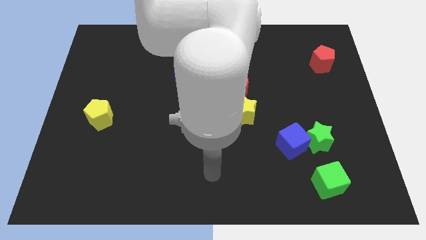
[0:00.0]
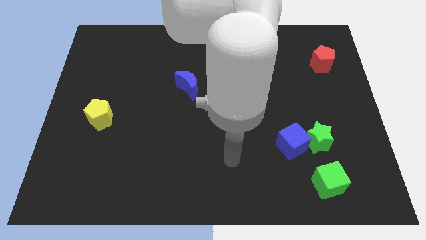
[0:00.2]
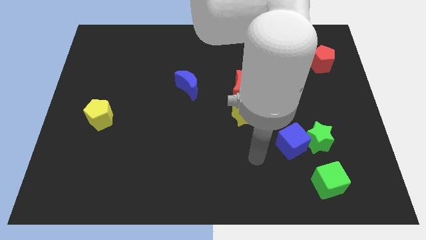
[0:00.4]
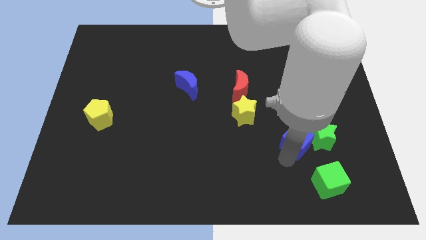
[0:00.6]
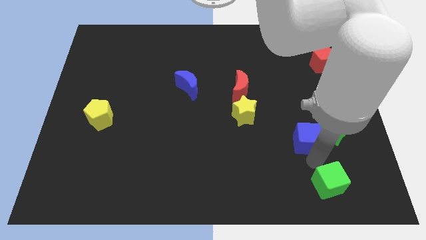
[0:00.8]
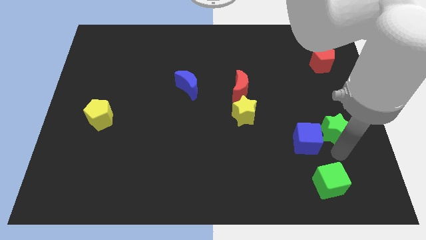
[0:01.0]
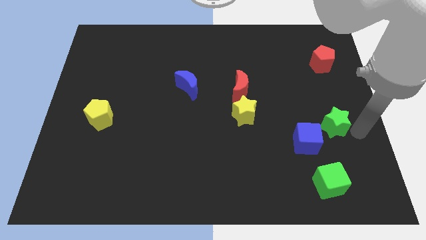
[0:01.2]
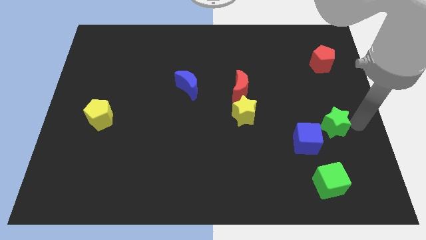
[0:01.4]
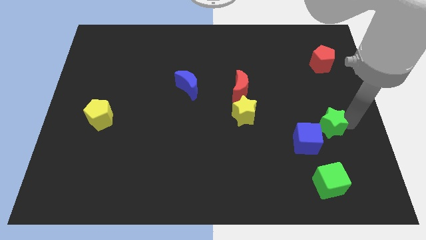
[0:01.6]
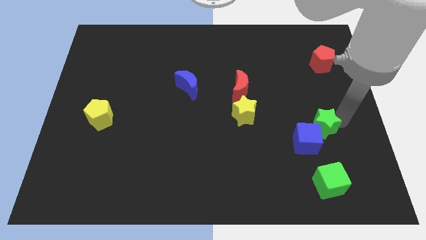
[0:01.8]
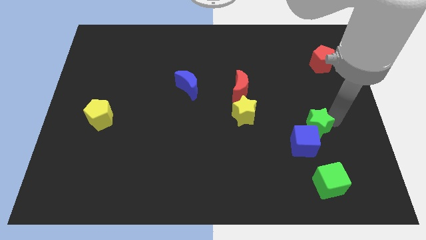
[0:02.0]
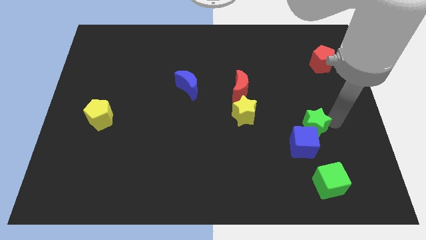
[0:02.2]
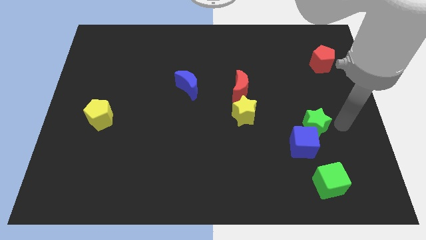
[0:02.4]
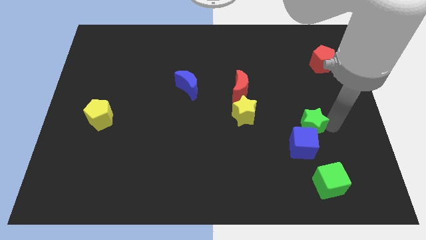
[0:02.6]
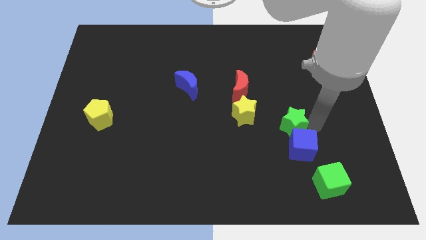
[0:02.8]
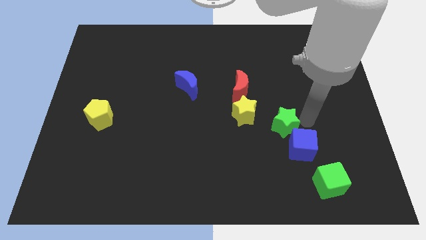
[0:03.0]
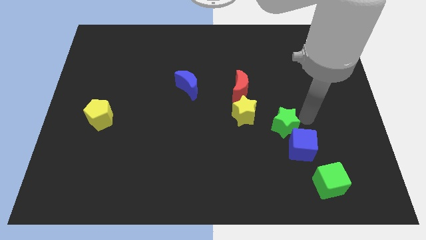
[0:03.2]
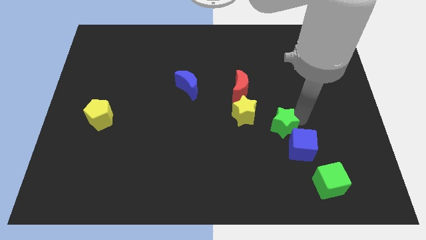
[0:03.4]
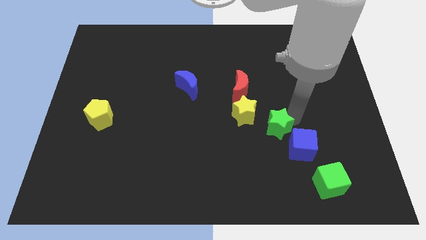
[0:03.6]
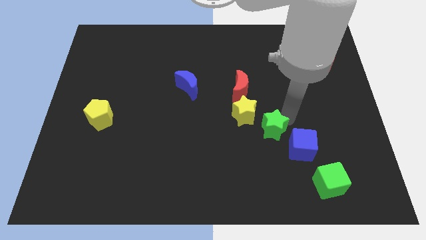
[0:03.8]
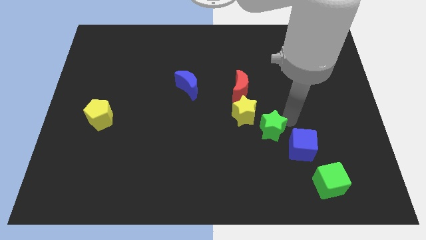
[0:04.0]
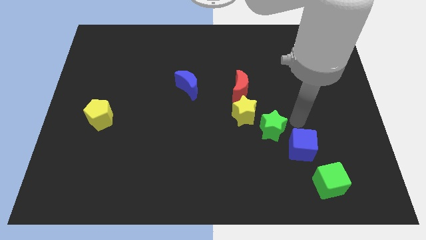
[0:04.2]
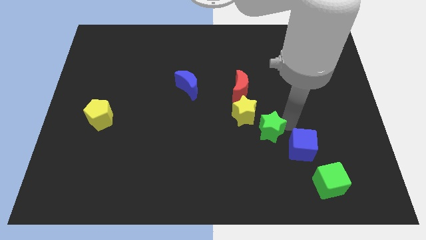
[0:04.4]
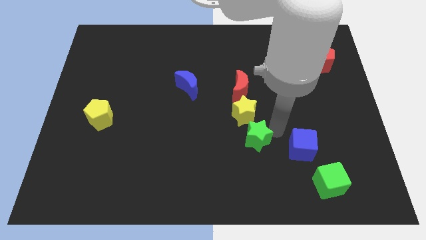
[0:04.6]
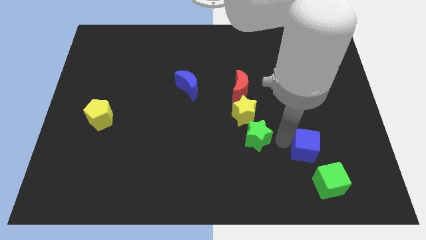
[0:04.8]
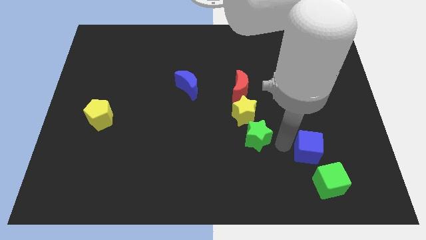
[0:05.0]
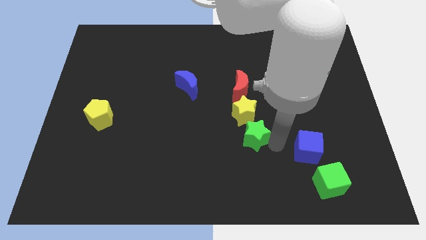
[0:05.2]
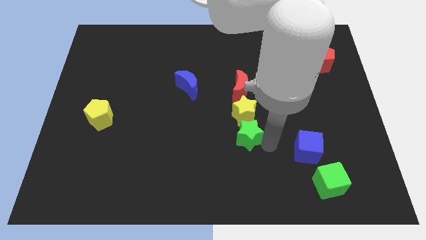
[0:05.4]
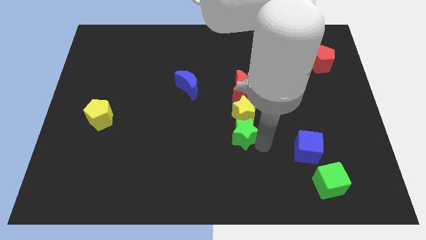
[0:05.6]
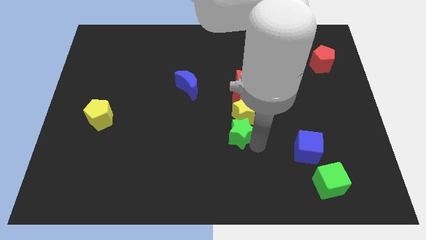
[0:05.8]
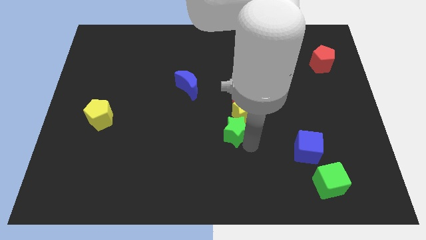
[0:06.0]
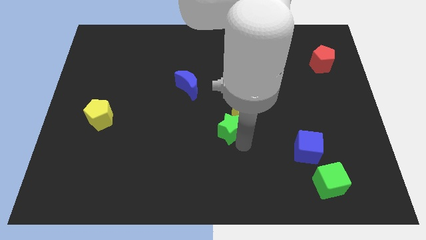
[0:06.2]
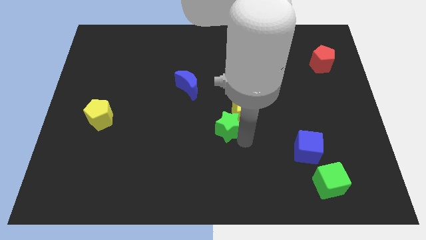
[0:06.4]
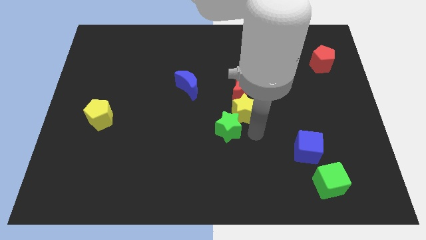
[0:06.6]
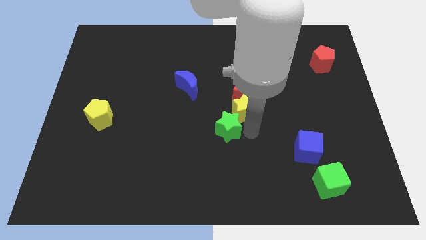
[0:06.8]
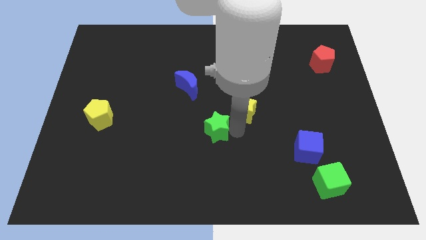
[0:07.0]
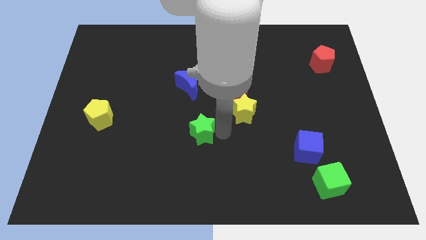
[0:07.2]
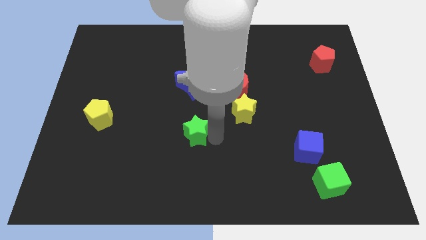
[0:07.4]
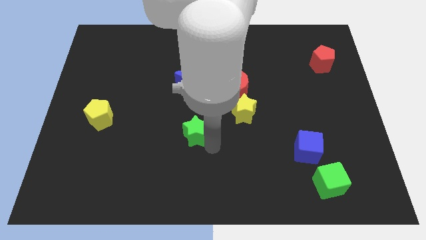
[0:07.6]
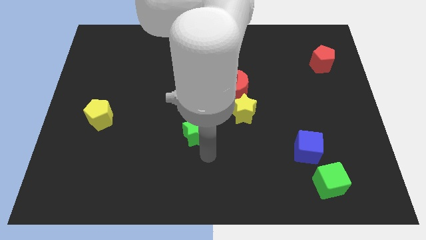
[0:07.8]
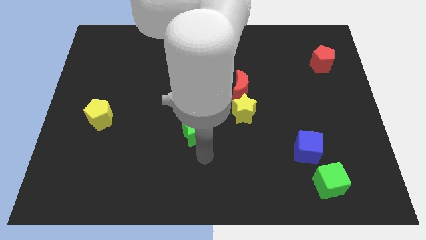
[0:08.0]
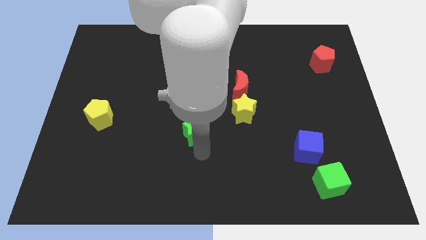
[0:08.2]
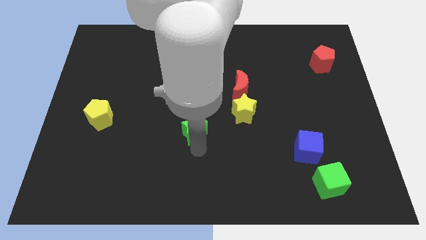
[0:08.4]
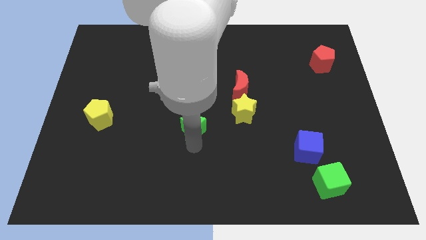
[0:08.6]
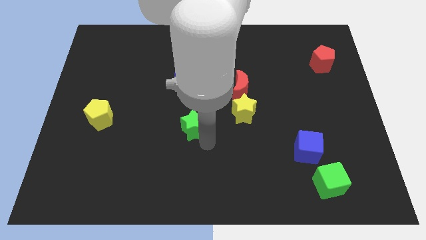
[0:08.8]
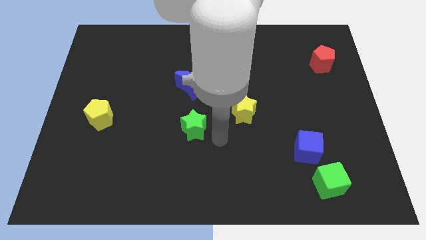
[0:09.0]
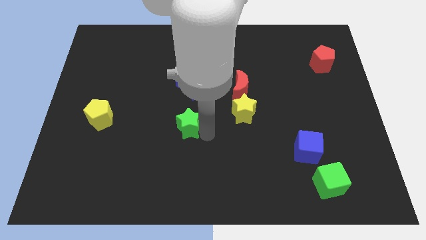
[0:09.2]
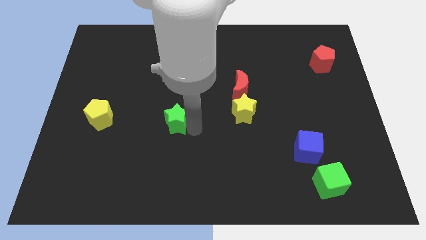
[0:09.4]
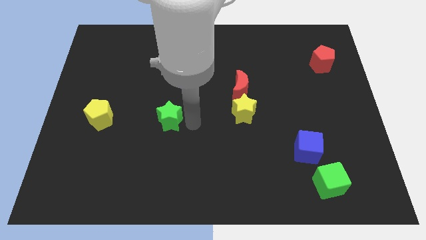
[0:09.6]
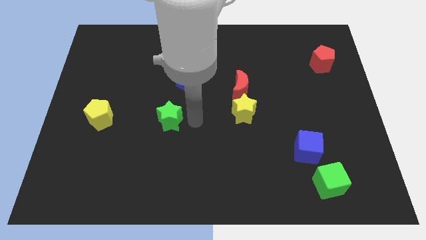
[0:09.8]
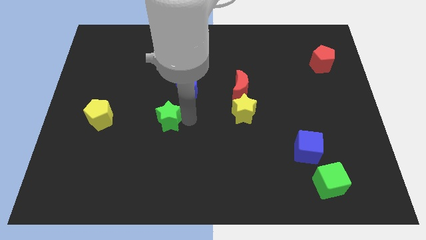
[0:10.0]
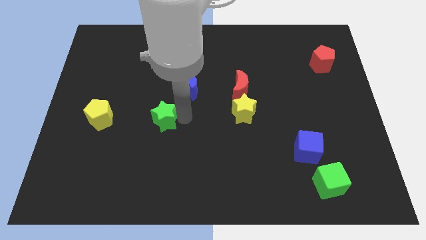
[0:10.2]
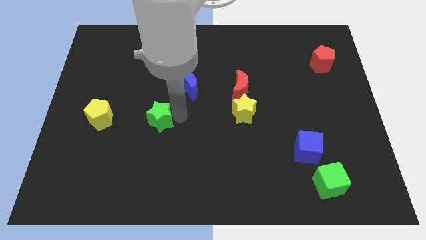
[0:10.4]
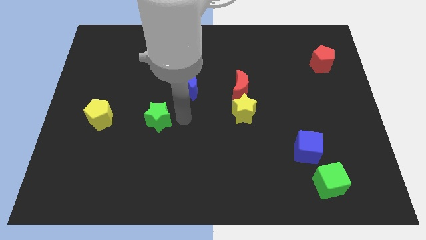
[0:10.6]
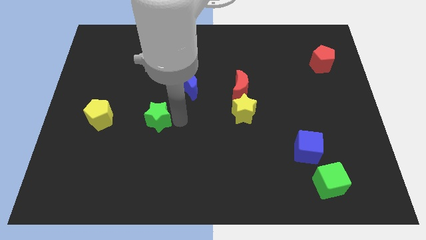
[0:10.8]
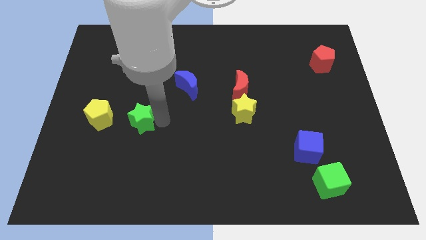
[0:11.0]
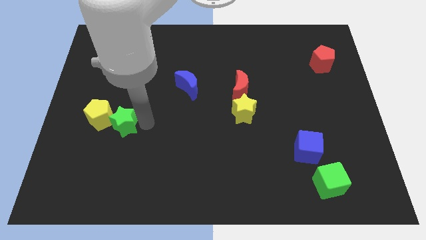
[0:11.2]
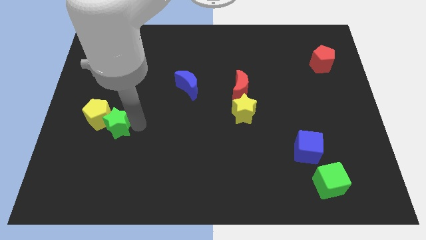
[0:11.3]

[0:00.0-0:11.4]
put the green star close to the yellow pentagon

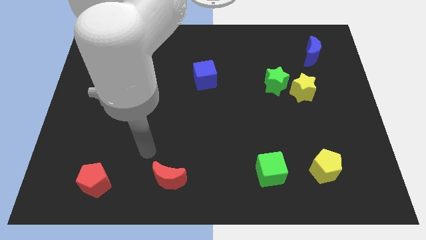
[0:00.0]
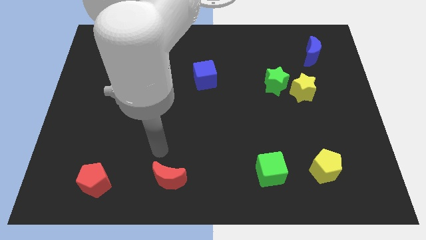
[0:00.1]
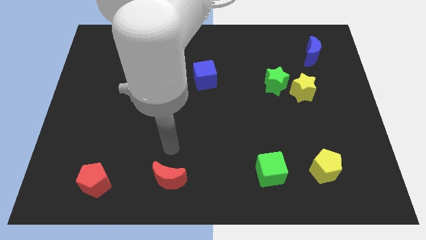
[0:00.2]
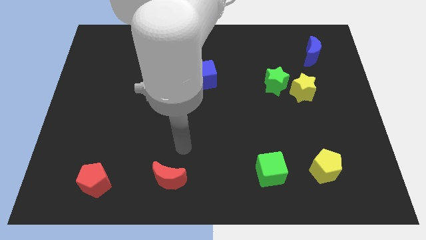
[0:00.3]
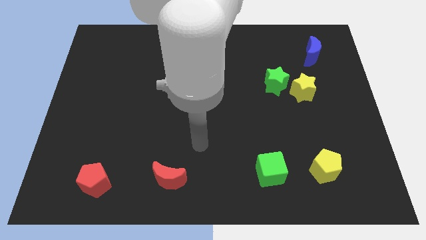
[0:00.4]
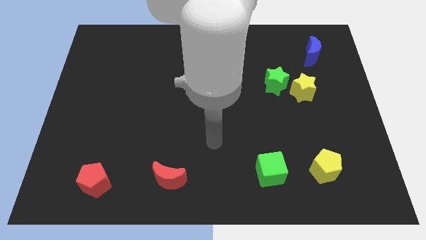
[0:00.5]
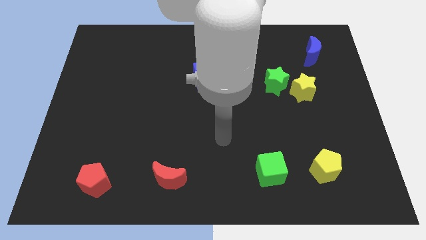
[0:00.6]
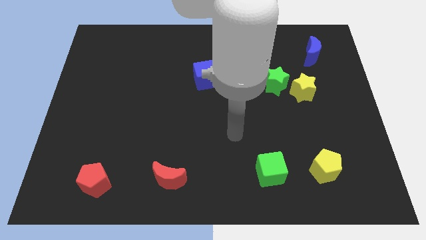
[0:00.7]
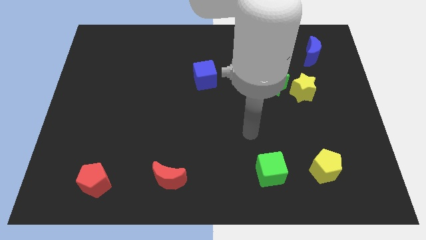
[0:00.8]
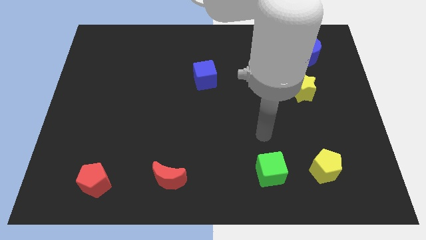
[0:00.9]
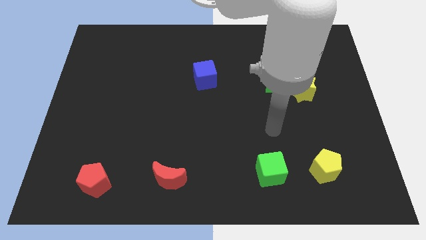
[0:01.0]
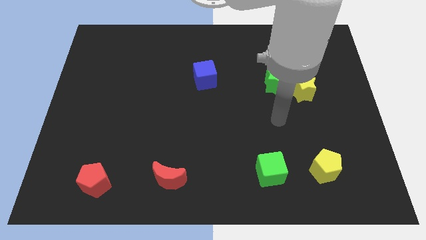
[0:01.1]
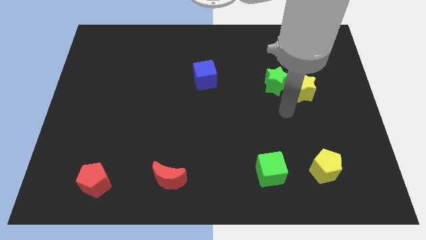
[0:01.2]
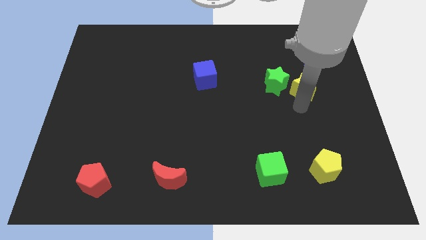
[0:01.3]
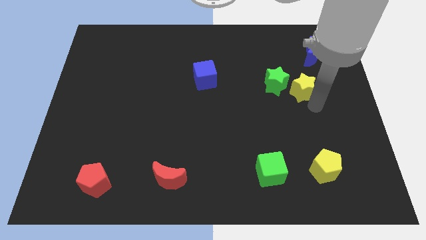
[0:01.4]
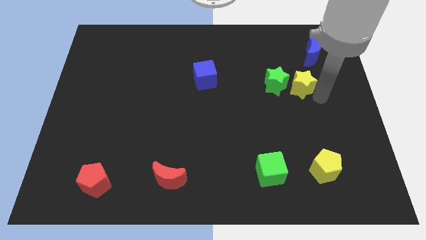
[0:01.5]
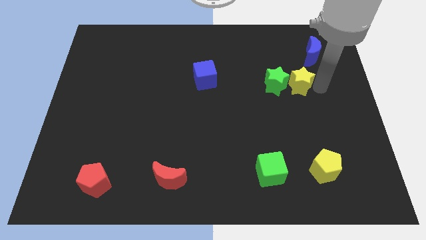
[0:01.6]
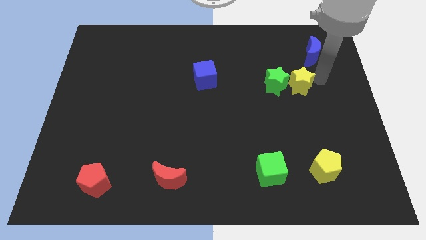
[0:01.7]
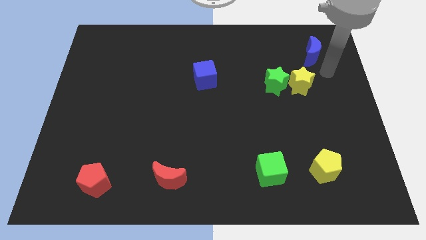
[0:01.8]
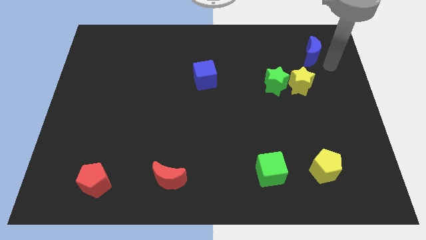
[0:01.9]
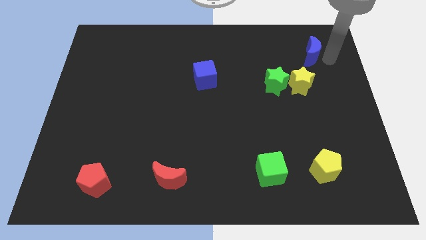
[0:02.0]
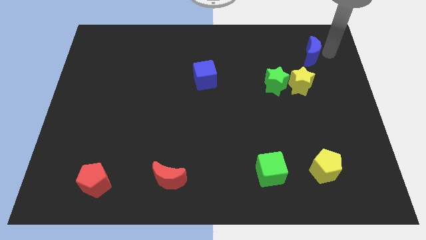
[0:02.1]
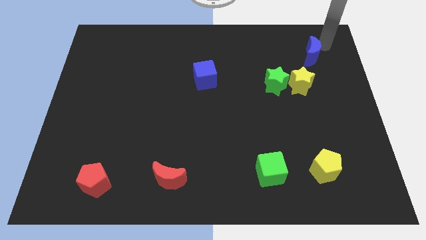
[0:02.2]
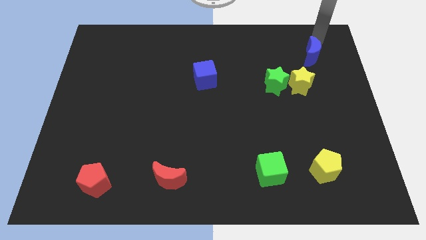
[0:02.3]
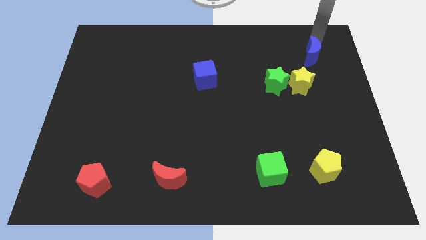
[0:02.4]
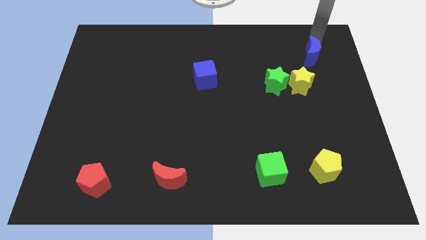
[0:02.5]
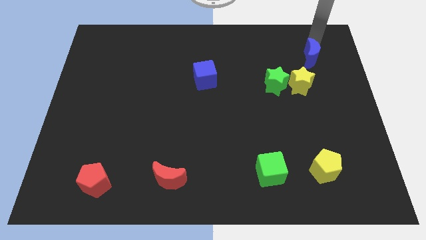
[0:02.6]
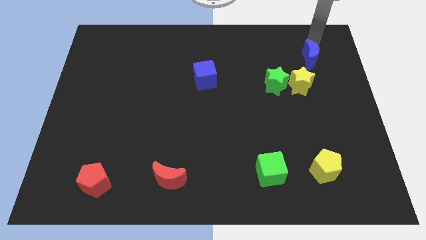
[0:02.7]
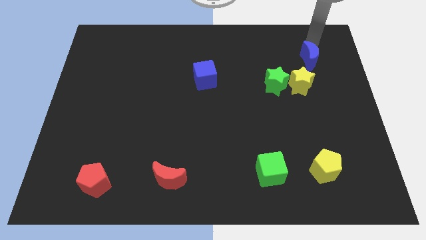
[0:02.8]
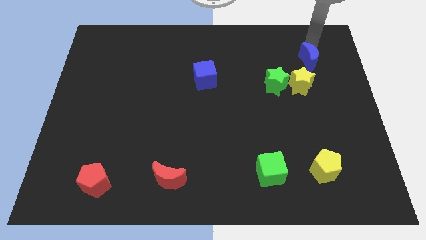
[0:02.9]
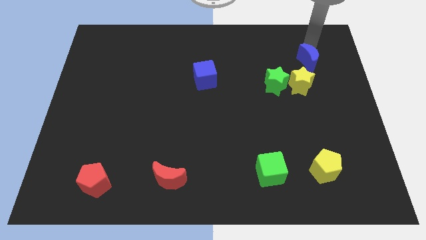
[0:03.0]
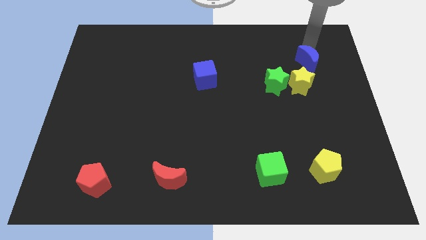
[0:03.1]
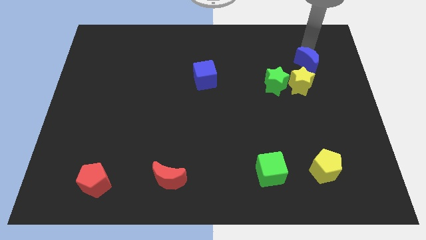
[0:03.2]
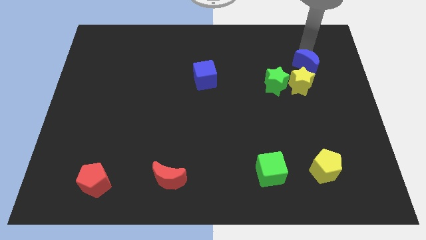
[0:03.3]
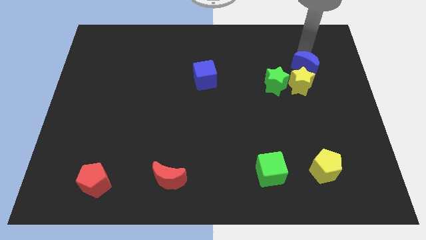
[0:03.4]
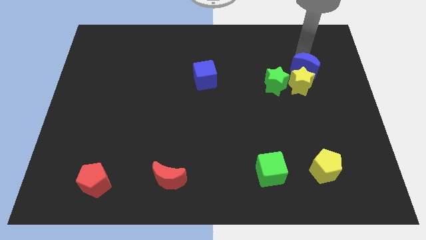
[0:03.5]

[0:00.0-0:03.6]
slide the blue moon next to the yellow star
